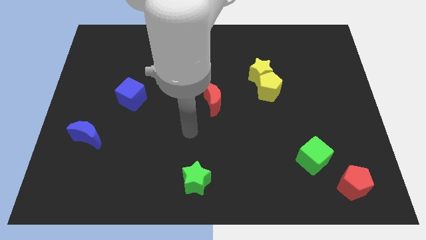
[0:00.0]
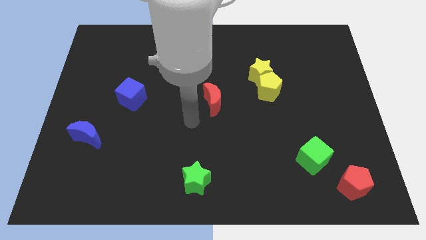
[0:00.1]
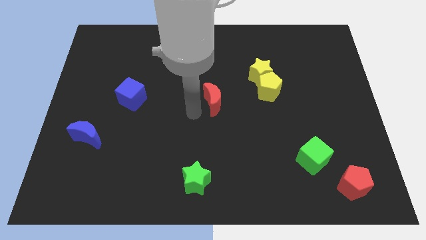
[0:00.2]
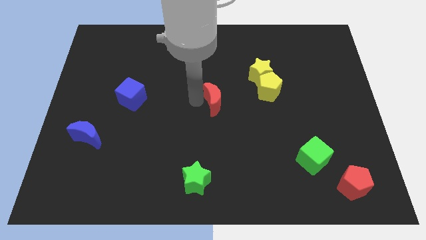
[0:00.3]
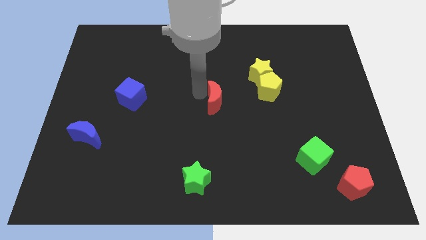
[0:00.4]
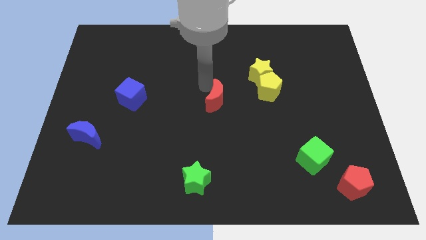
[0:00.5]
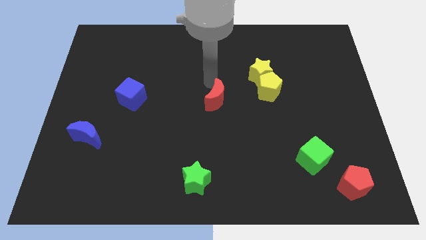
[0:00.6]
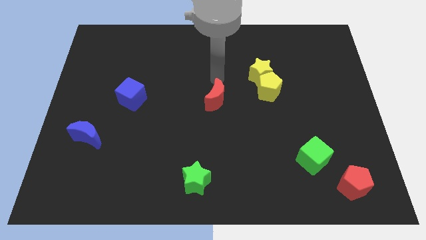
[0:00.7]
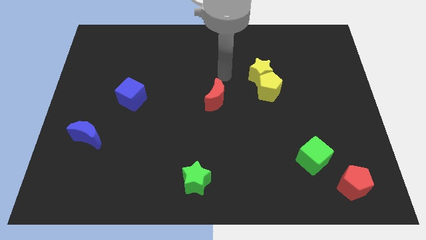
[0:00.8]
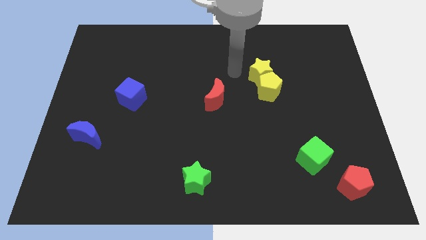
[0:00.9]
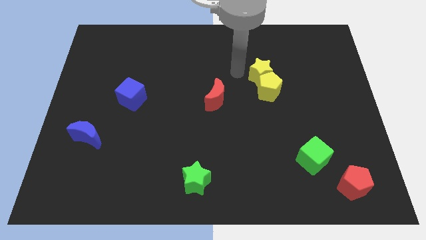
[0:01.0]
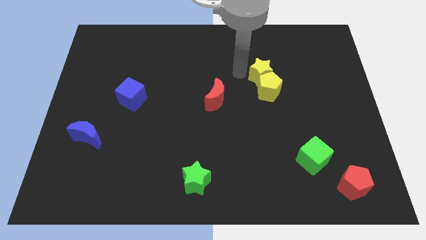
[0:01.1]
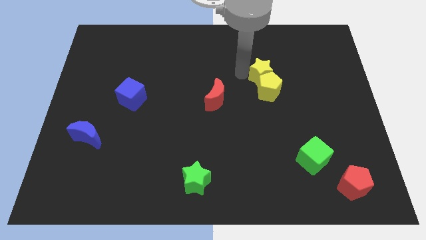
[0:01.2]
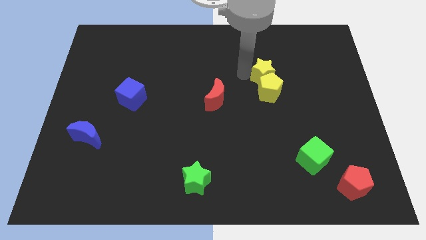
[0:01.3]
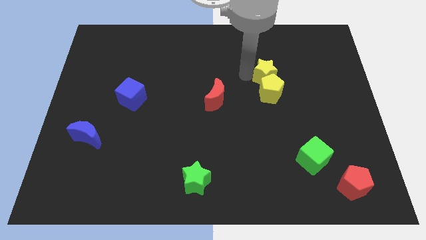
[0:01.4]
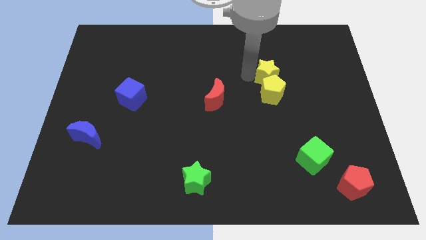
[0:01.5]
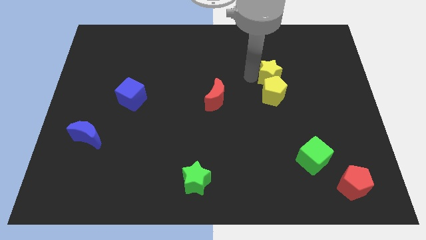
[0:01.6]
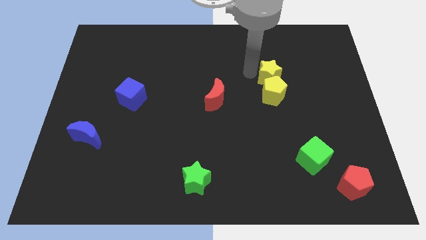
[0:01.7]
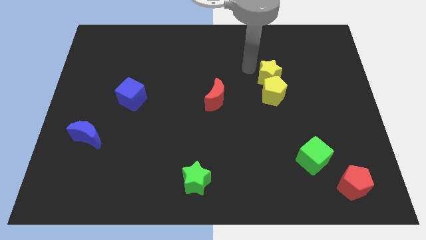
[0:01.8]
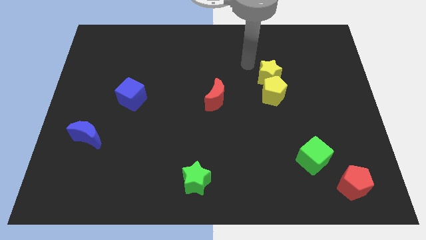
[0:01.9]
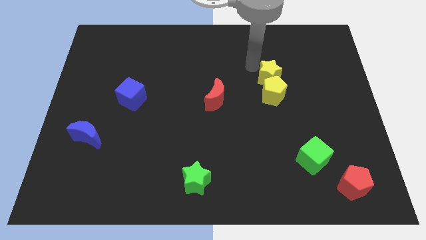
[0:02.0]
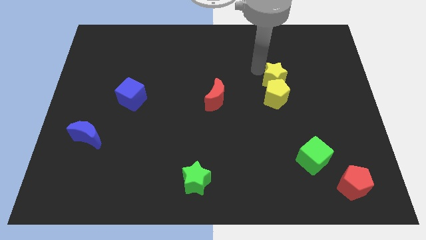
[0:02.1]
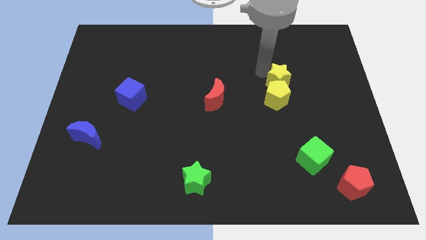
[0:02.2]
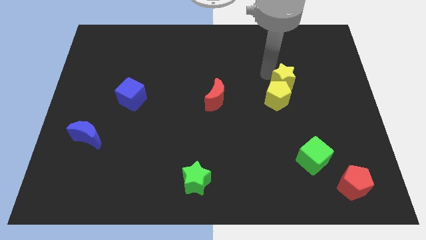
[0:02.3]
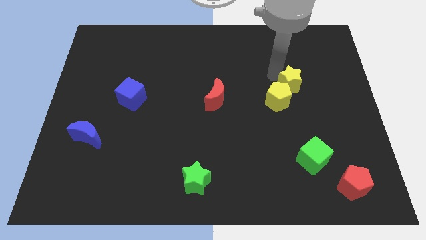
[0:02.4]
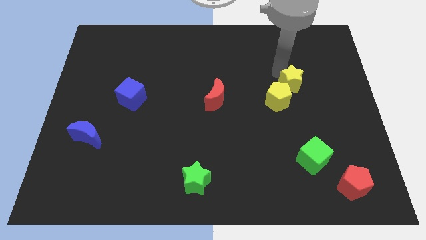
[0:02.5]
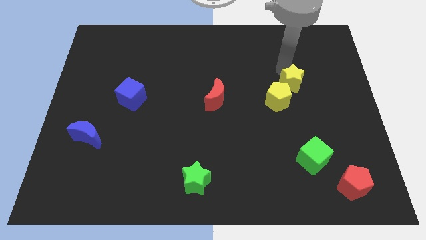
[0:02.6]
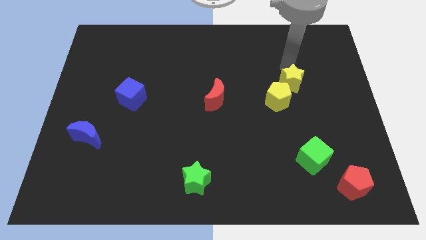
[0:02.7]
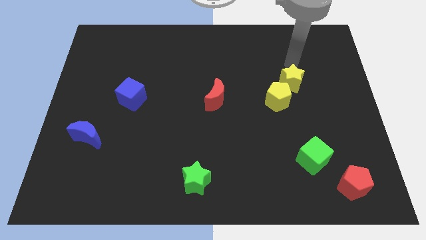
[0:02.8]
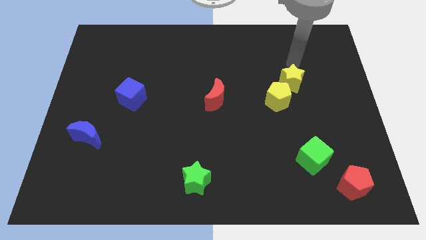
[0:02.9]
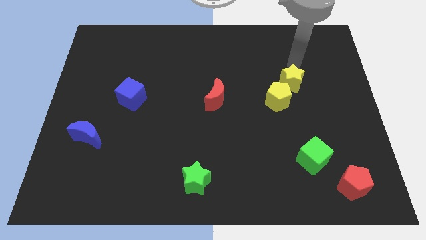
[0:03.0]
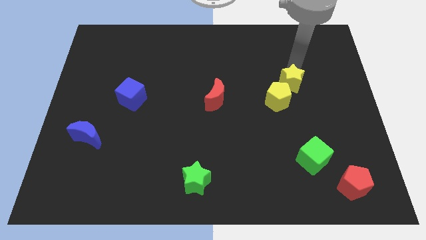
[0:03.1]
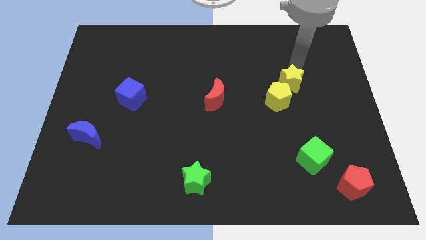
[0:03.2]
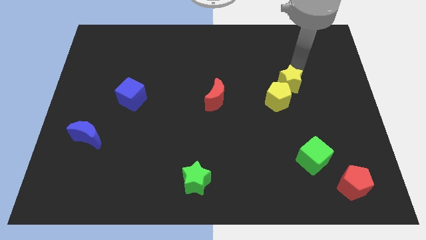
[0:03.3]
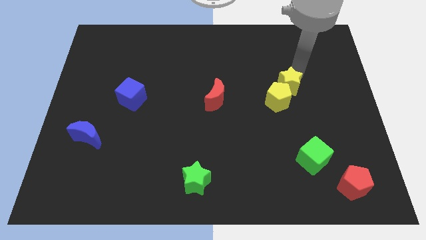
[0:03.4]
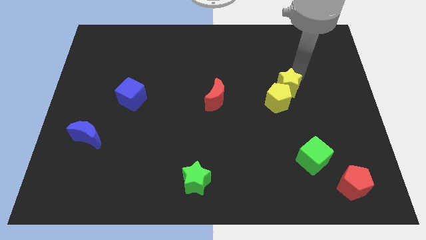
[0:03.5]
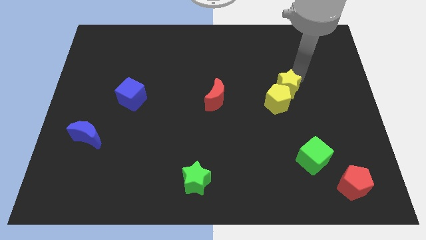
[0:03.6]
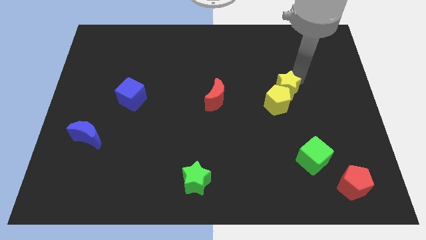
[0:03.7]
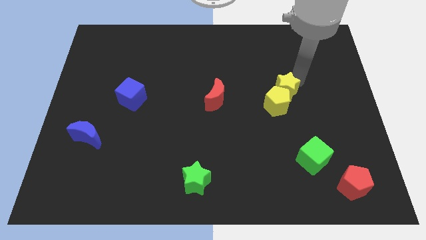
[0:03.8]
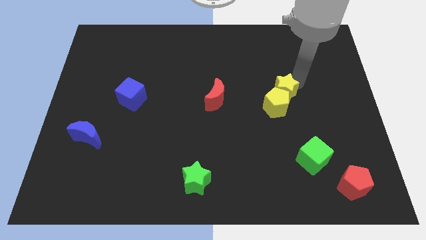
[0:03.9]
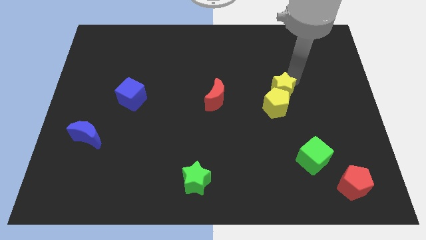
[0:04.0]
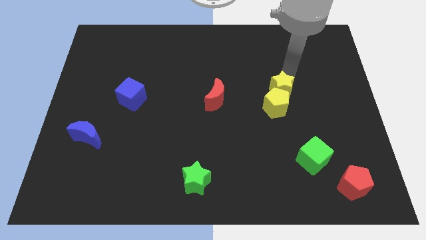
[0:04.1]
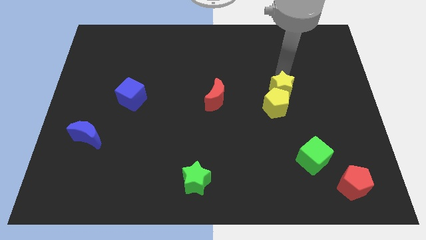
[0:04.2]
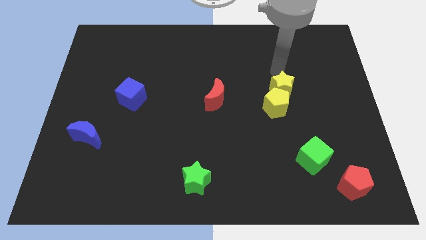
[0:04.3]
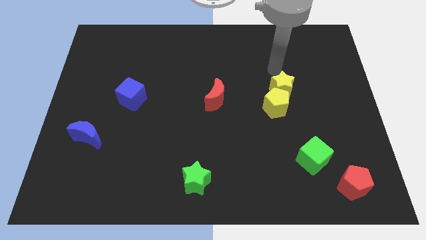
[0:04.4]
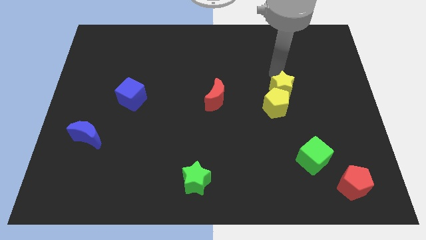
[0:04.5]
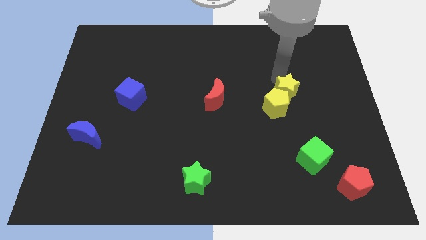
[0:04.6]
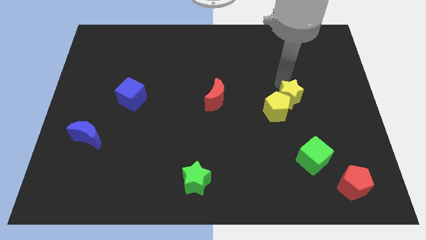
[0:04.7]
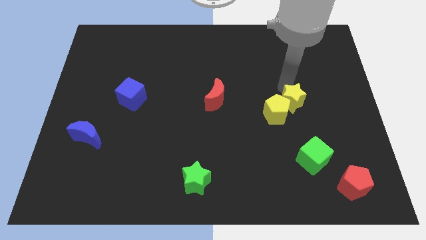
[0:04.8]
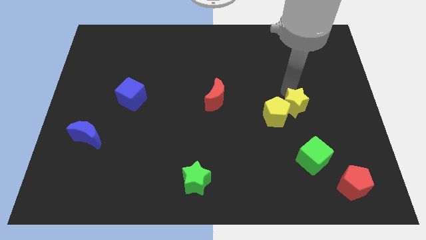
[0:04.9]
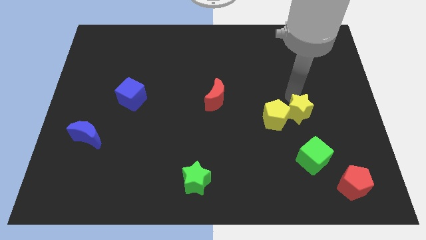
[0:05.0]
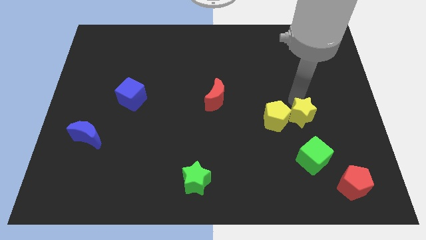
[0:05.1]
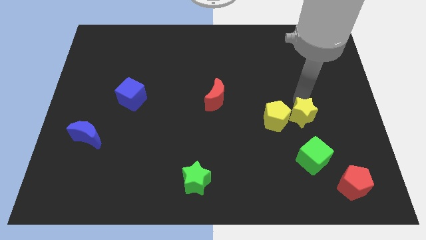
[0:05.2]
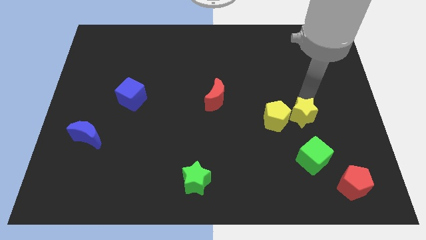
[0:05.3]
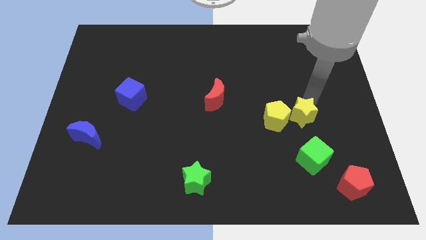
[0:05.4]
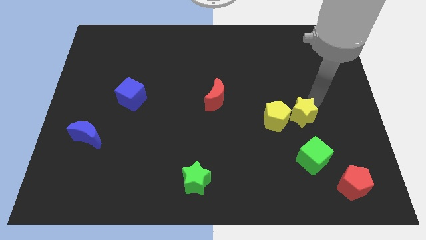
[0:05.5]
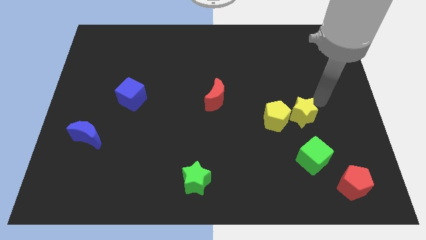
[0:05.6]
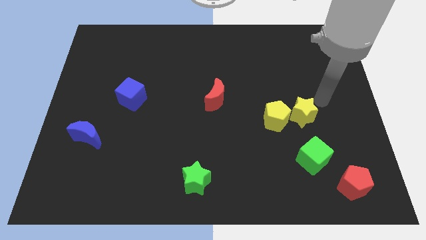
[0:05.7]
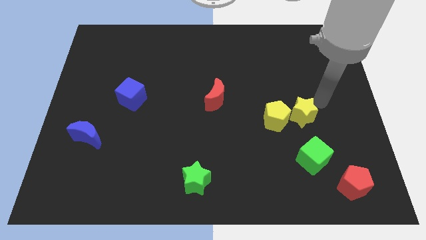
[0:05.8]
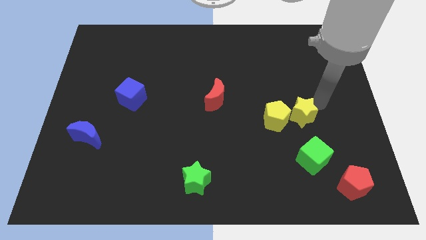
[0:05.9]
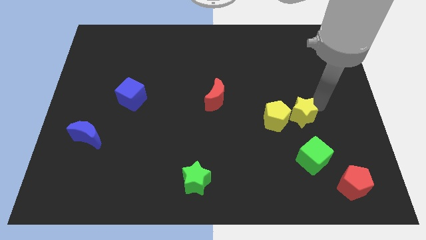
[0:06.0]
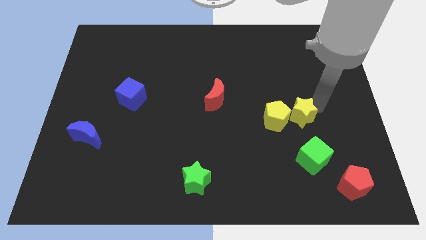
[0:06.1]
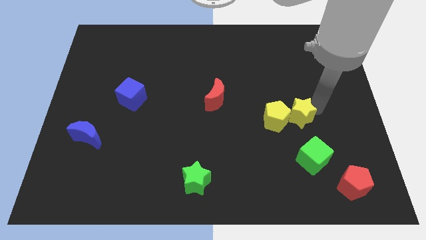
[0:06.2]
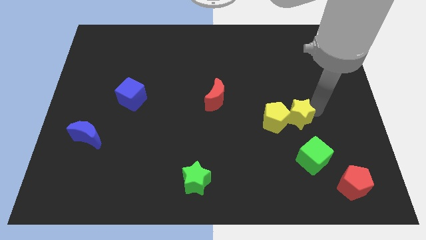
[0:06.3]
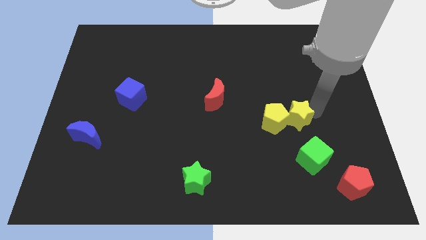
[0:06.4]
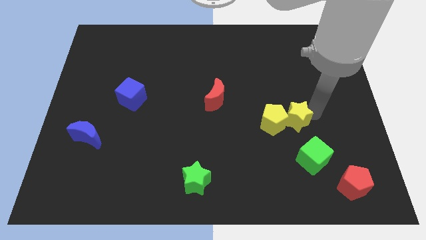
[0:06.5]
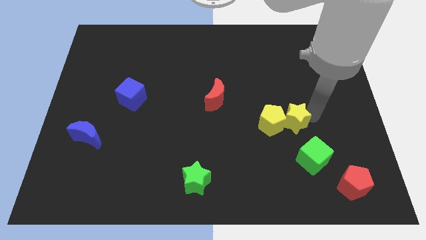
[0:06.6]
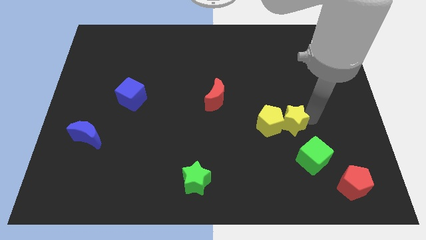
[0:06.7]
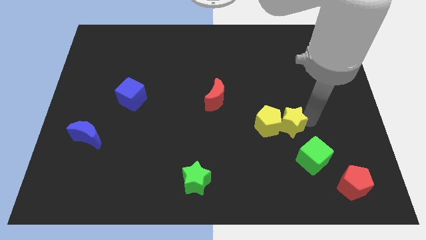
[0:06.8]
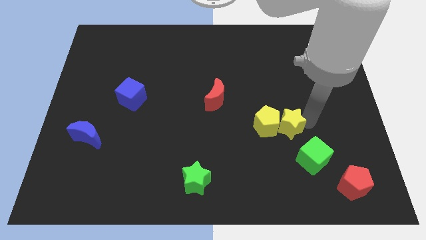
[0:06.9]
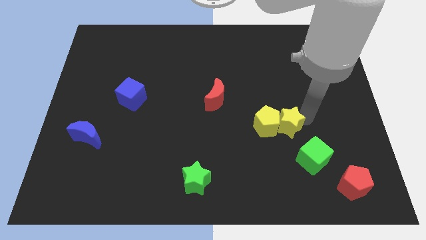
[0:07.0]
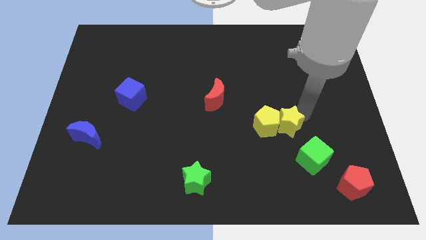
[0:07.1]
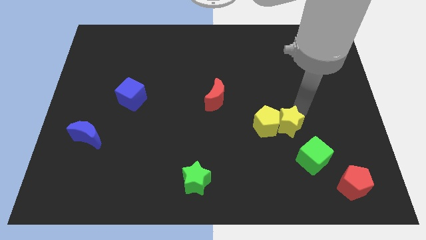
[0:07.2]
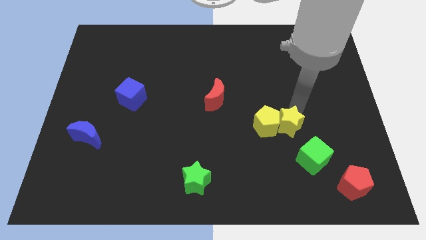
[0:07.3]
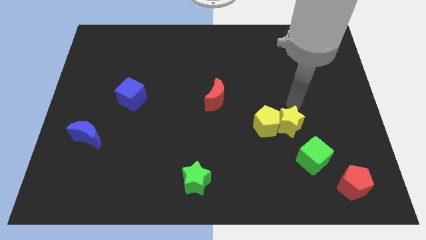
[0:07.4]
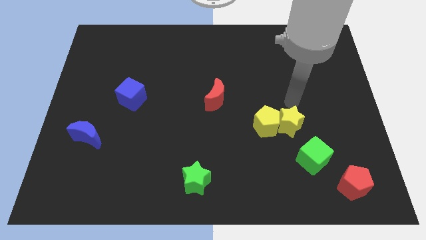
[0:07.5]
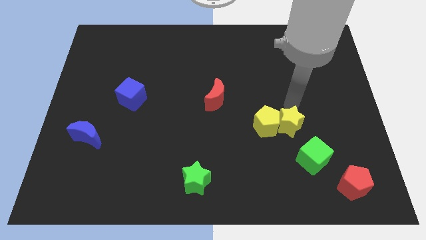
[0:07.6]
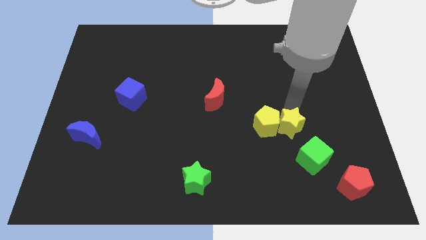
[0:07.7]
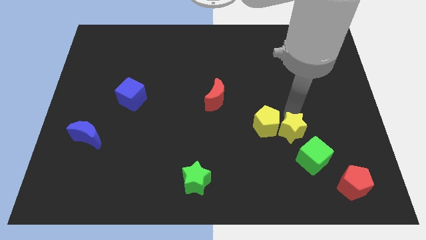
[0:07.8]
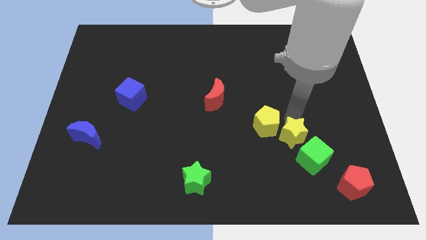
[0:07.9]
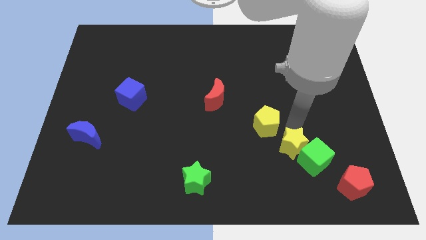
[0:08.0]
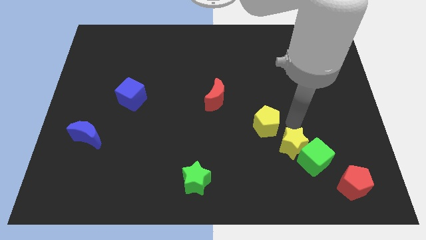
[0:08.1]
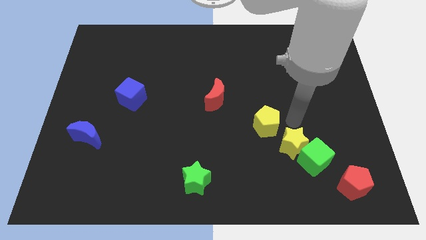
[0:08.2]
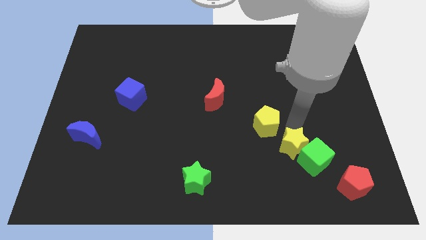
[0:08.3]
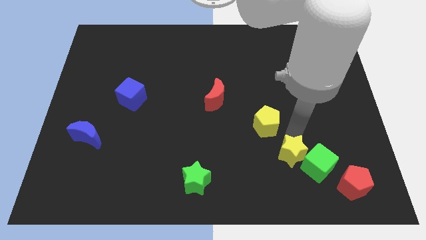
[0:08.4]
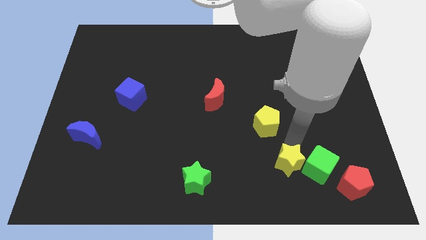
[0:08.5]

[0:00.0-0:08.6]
push the yellow star to the bottom left side of the green cube
